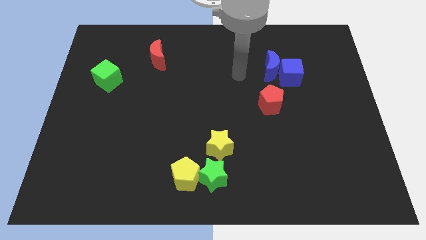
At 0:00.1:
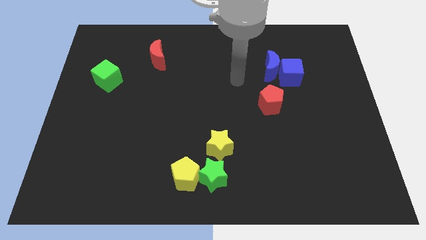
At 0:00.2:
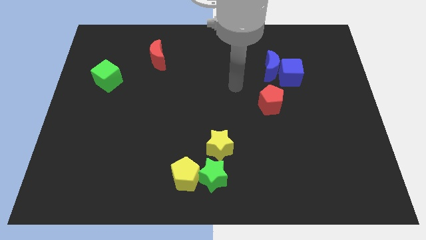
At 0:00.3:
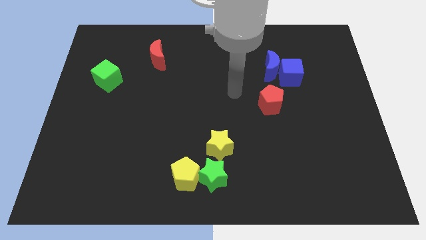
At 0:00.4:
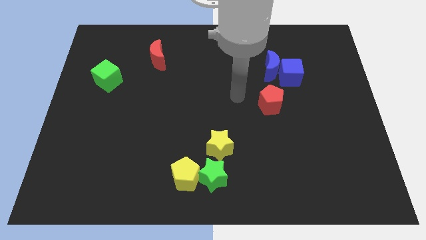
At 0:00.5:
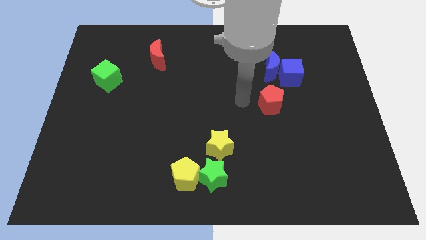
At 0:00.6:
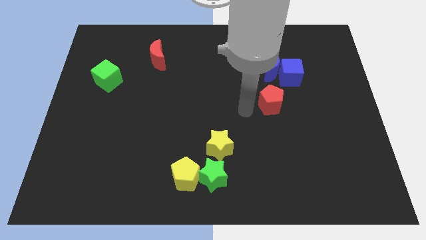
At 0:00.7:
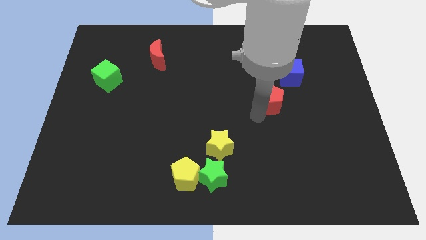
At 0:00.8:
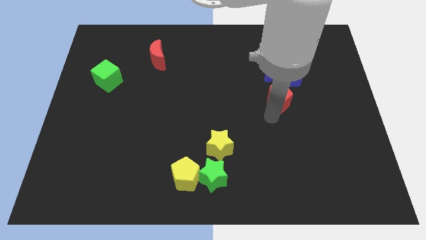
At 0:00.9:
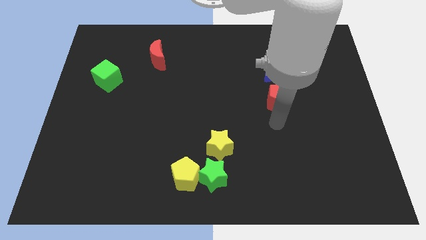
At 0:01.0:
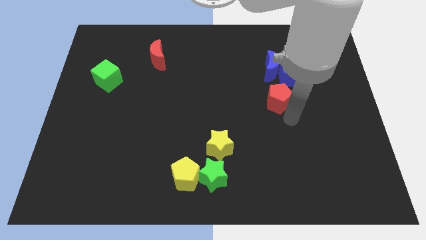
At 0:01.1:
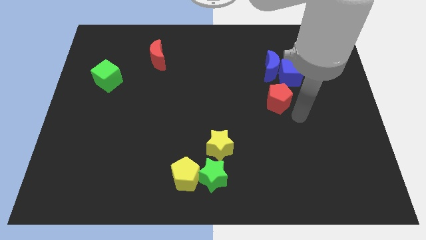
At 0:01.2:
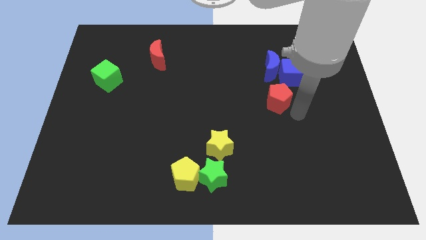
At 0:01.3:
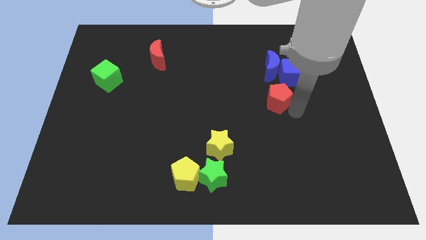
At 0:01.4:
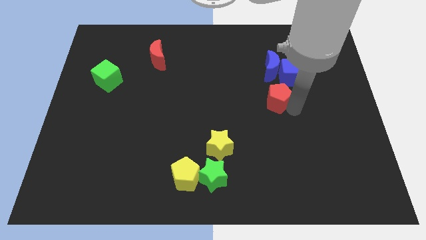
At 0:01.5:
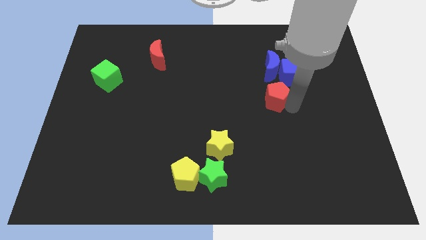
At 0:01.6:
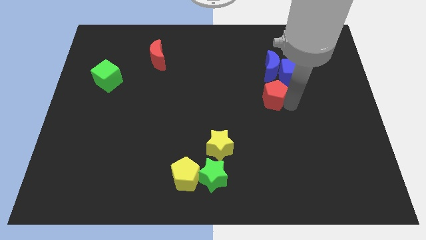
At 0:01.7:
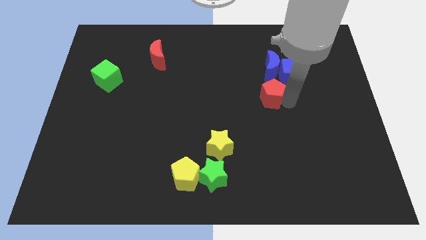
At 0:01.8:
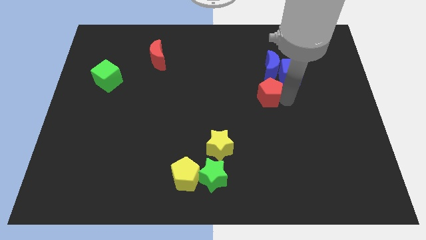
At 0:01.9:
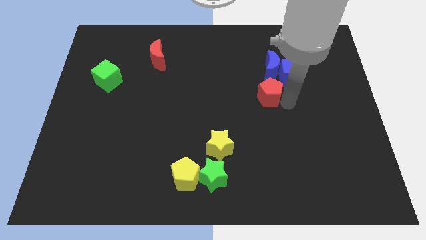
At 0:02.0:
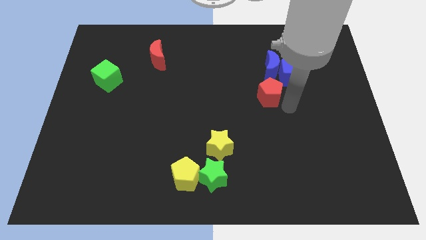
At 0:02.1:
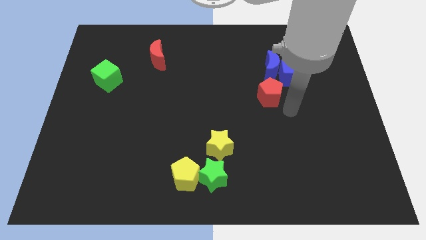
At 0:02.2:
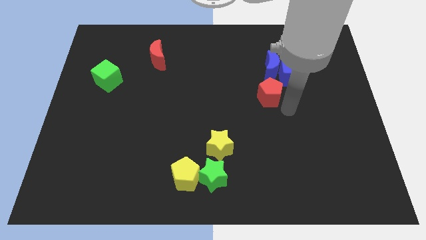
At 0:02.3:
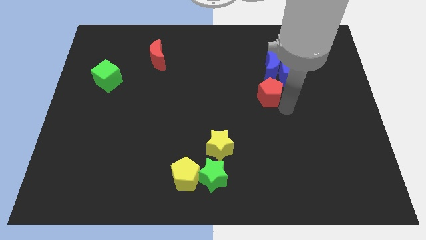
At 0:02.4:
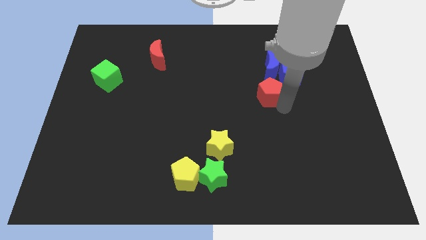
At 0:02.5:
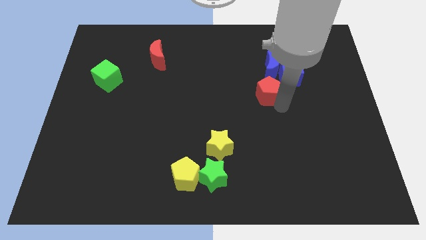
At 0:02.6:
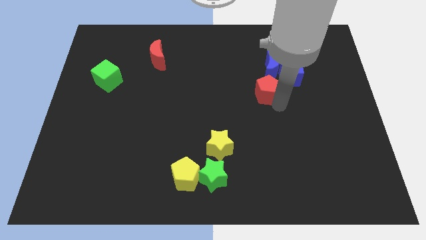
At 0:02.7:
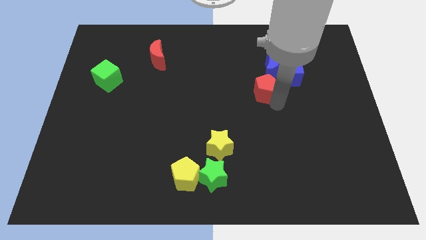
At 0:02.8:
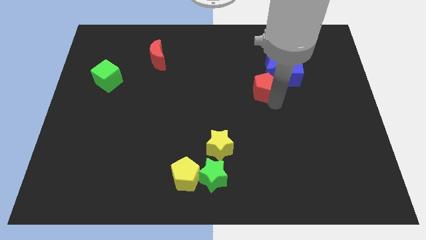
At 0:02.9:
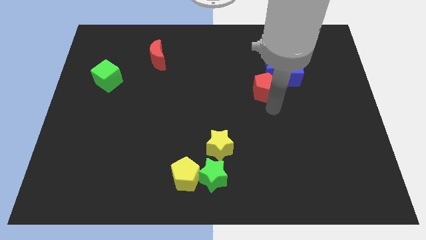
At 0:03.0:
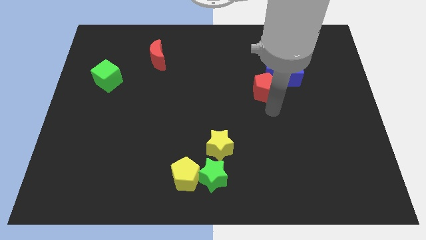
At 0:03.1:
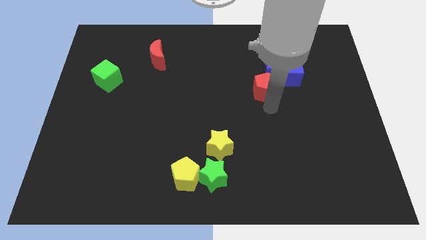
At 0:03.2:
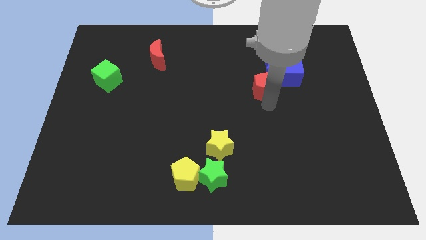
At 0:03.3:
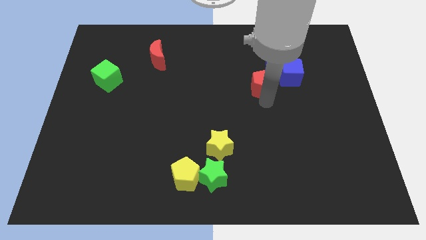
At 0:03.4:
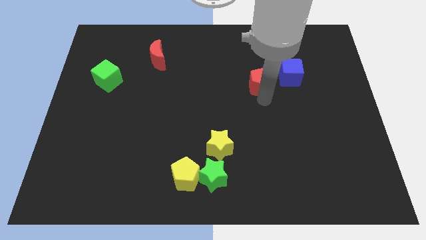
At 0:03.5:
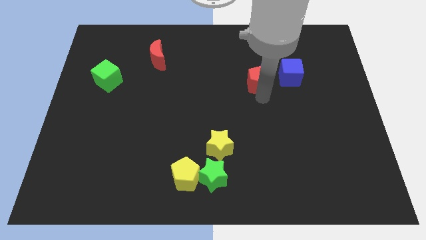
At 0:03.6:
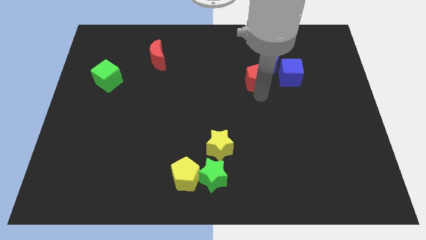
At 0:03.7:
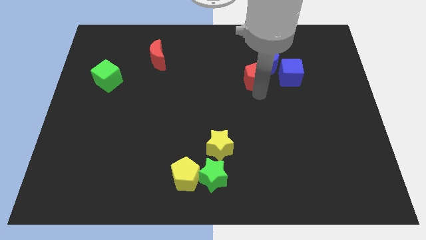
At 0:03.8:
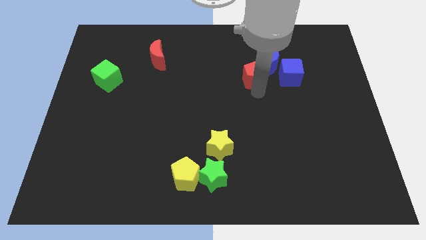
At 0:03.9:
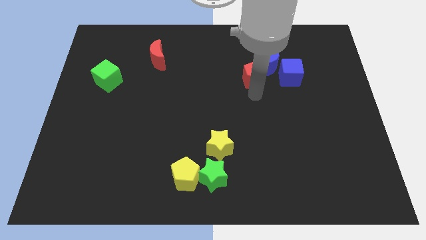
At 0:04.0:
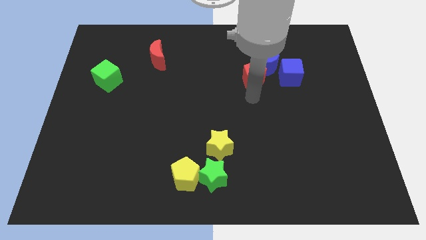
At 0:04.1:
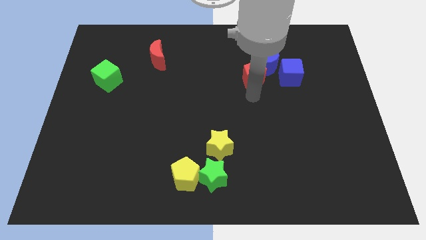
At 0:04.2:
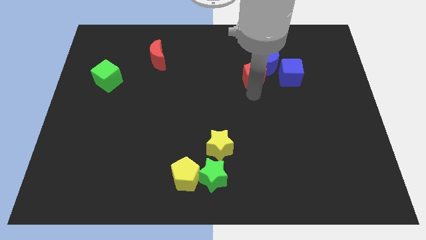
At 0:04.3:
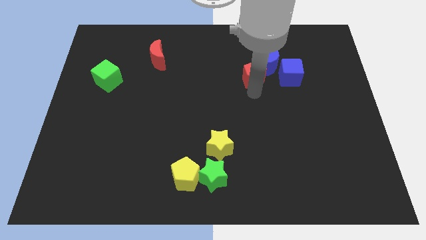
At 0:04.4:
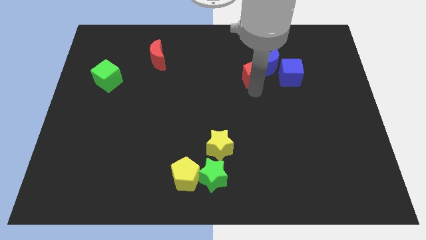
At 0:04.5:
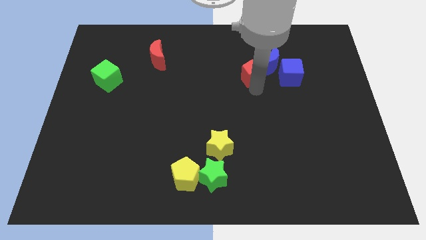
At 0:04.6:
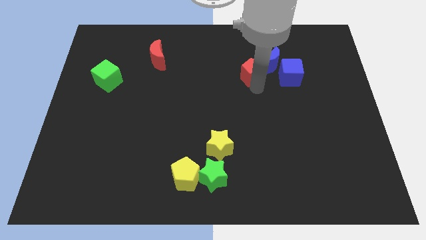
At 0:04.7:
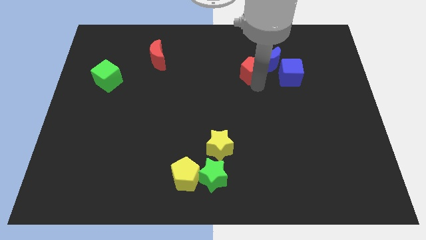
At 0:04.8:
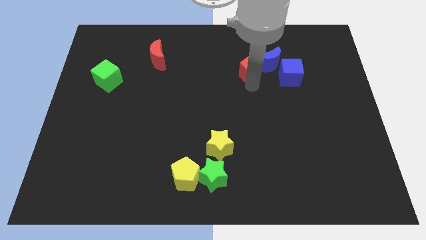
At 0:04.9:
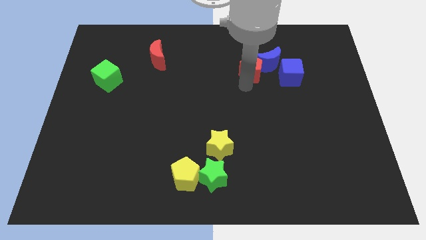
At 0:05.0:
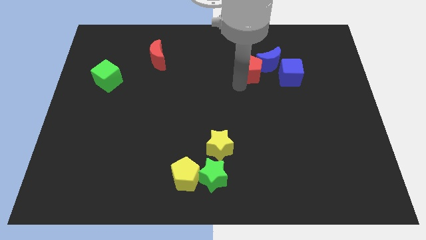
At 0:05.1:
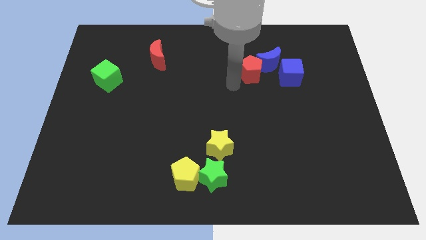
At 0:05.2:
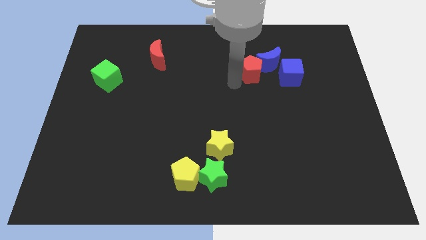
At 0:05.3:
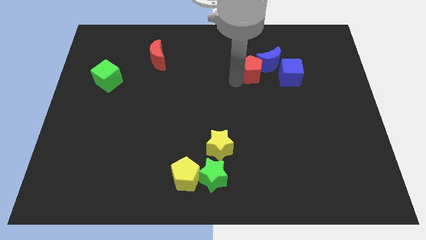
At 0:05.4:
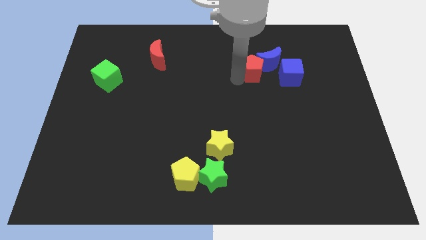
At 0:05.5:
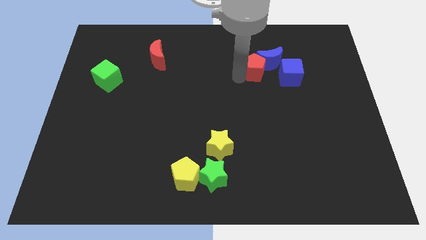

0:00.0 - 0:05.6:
push the red pentagon to the top left of the blue cube

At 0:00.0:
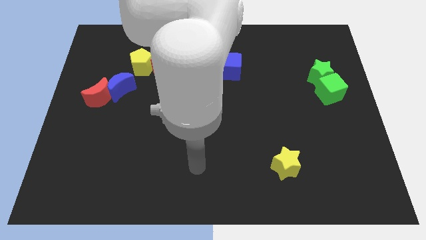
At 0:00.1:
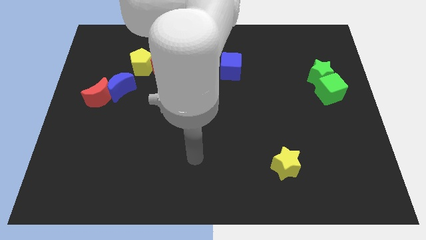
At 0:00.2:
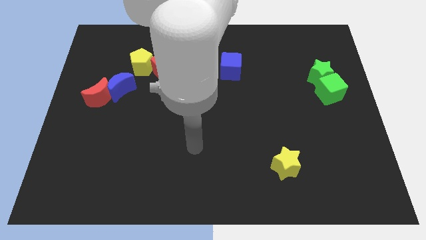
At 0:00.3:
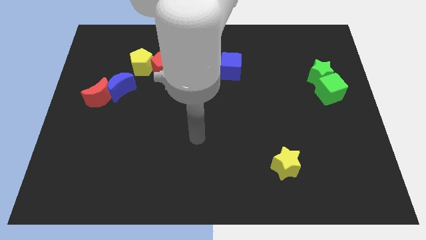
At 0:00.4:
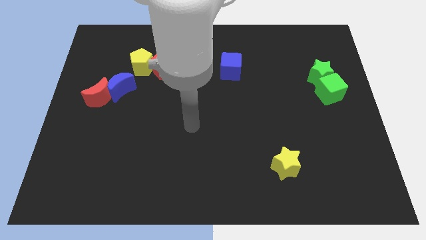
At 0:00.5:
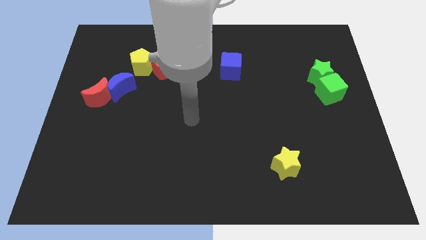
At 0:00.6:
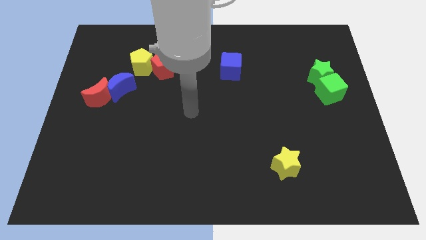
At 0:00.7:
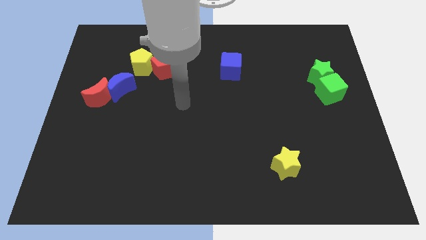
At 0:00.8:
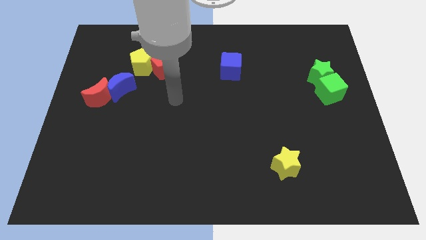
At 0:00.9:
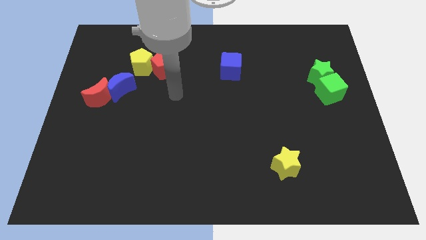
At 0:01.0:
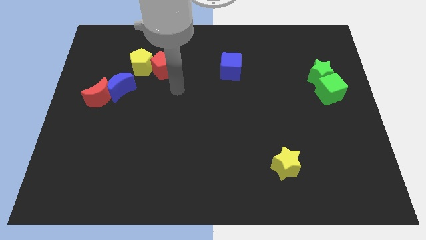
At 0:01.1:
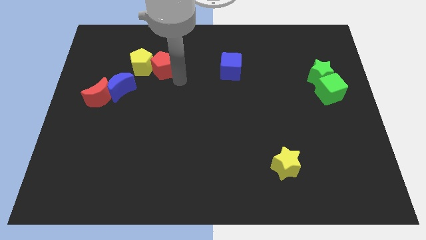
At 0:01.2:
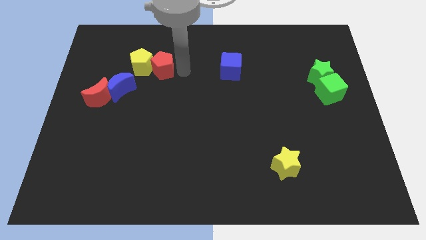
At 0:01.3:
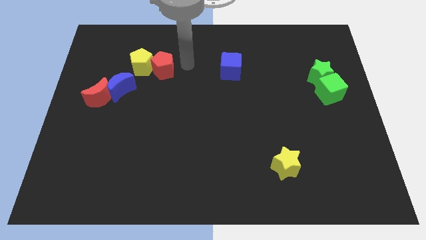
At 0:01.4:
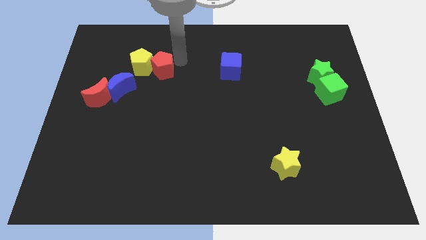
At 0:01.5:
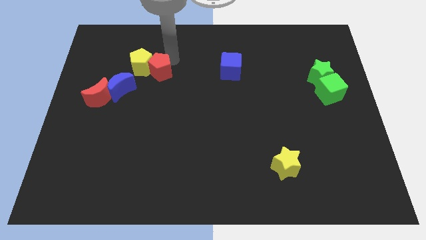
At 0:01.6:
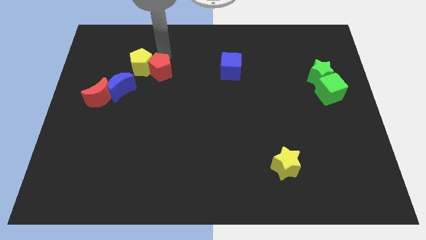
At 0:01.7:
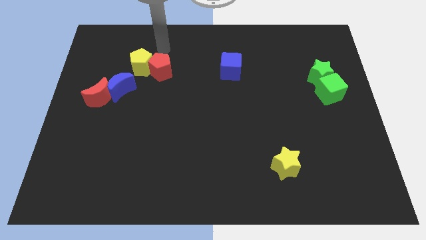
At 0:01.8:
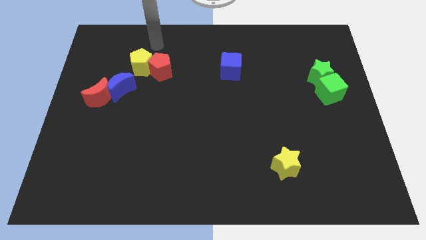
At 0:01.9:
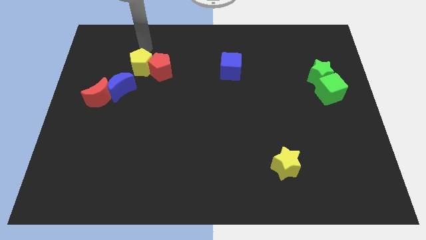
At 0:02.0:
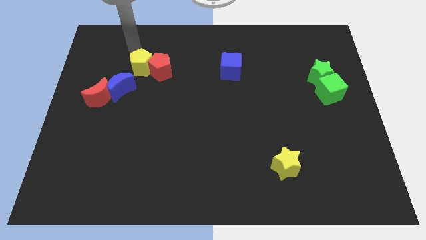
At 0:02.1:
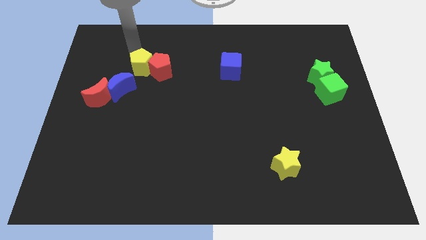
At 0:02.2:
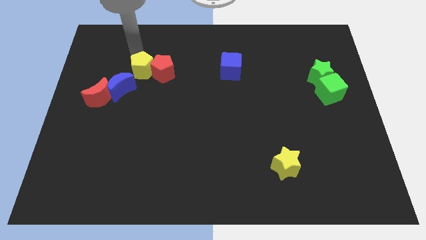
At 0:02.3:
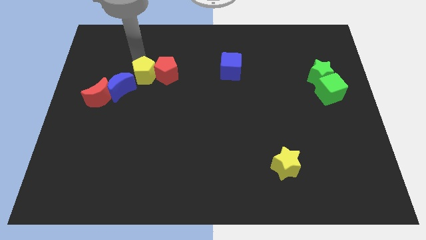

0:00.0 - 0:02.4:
slide the yellow pentagon right of the blue moon
